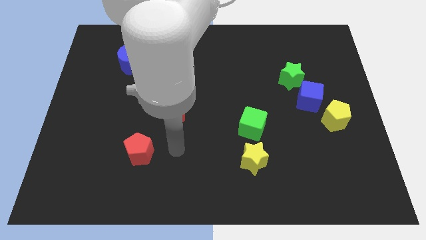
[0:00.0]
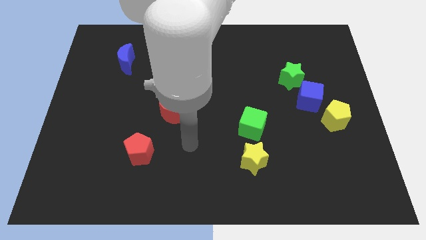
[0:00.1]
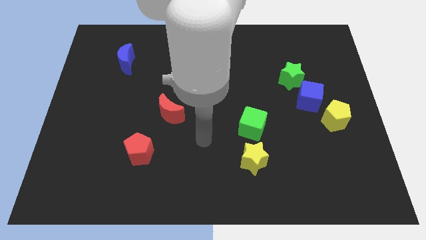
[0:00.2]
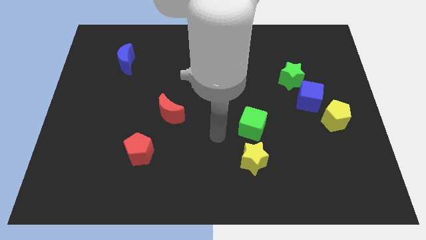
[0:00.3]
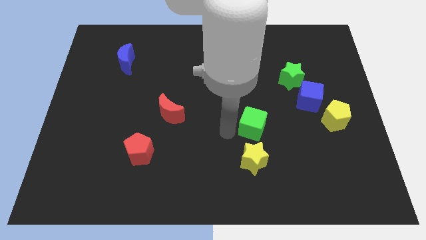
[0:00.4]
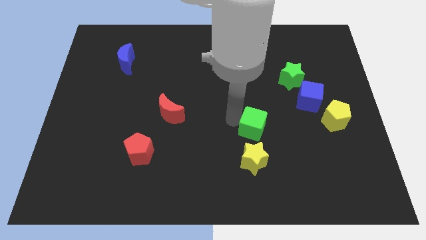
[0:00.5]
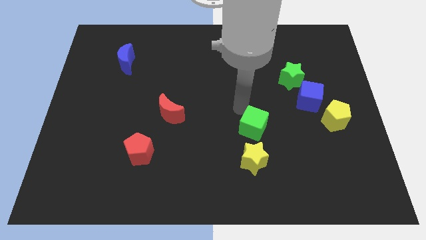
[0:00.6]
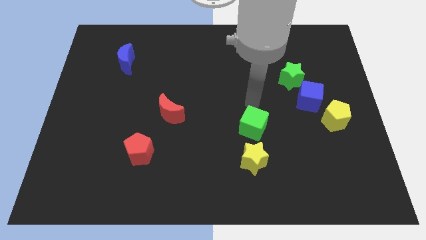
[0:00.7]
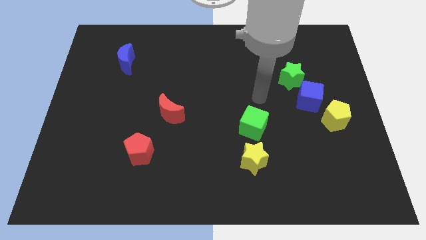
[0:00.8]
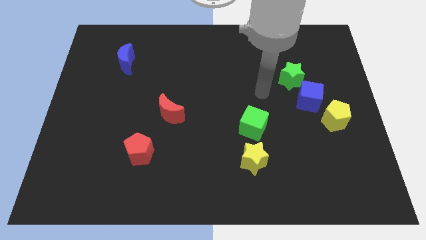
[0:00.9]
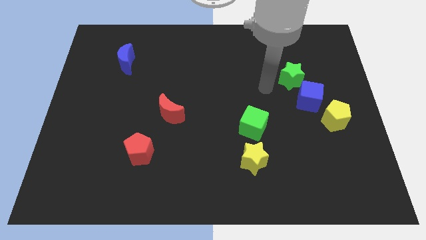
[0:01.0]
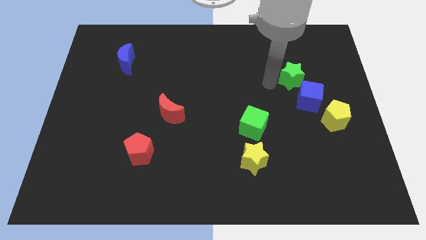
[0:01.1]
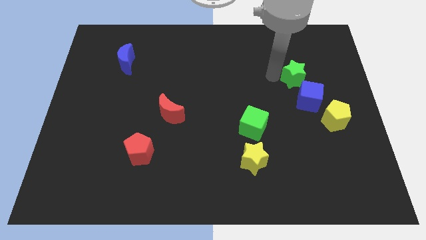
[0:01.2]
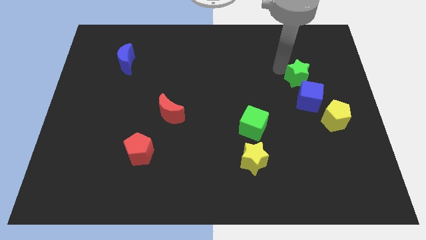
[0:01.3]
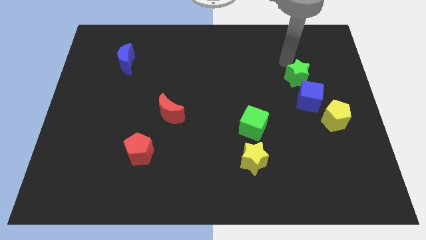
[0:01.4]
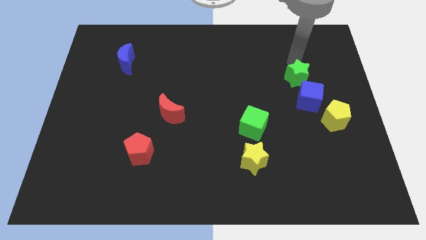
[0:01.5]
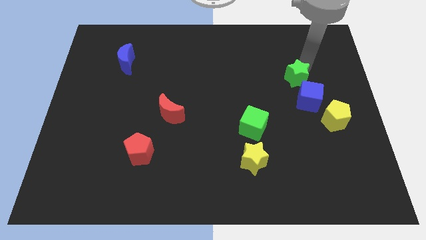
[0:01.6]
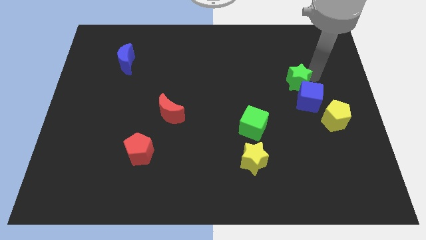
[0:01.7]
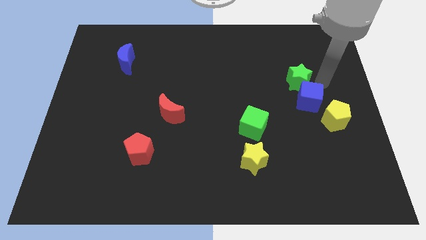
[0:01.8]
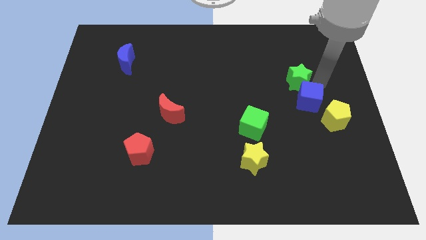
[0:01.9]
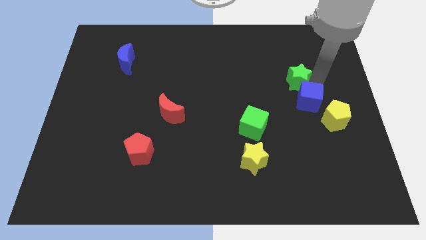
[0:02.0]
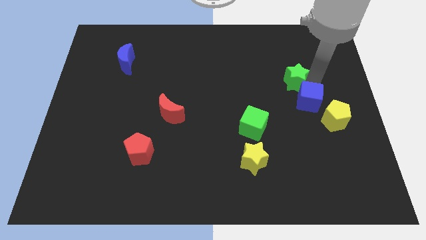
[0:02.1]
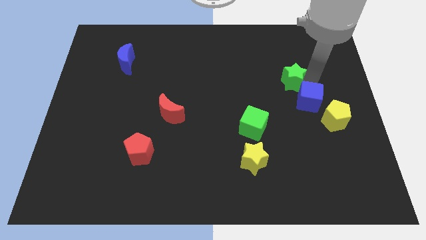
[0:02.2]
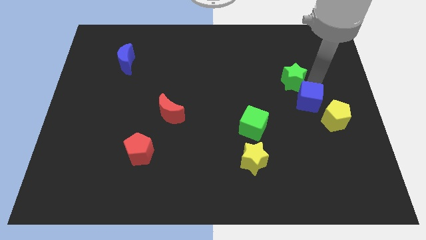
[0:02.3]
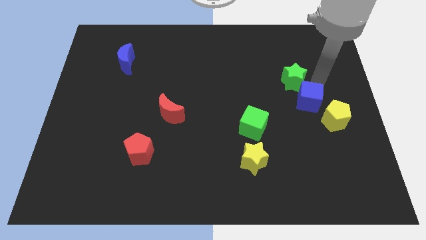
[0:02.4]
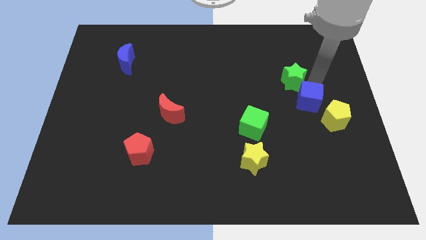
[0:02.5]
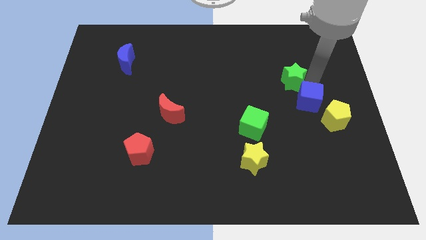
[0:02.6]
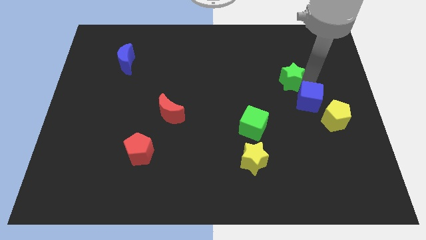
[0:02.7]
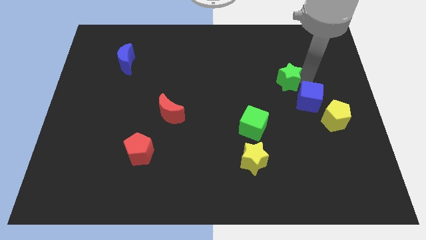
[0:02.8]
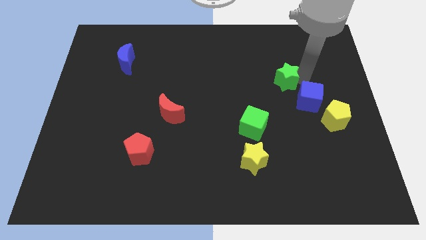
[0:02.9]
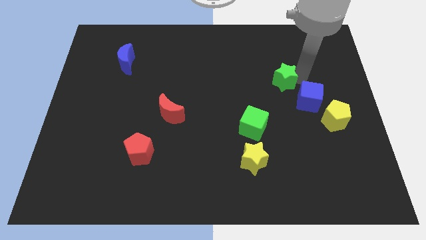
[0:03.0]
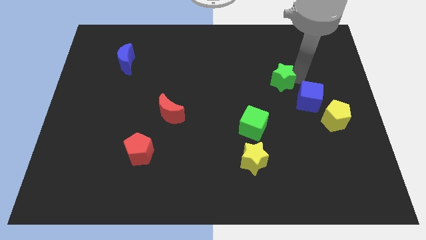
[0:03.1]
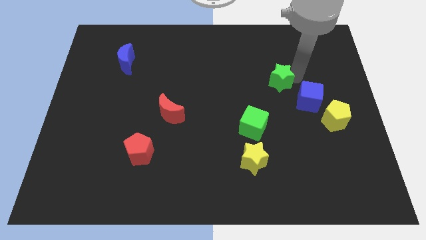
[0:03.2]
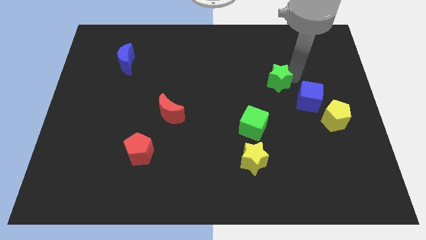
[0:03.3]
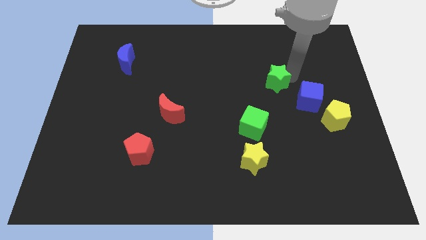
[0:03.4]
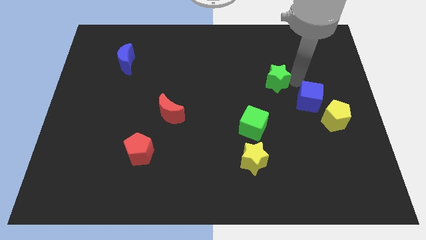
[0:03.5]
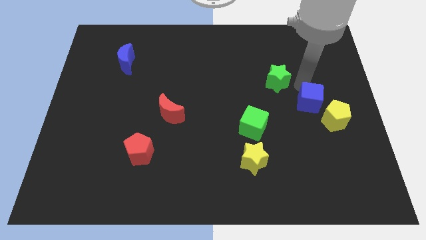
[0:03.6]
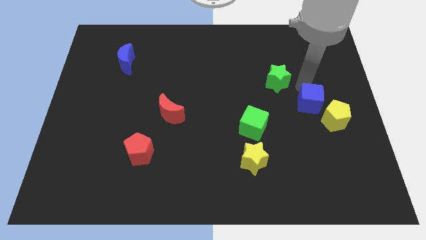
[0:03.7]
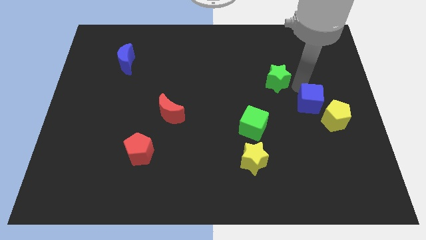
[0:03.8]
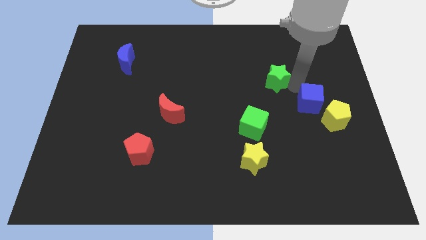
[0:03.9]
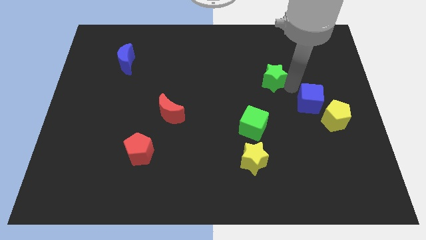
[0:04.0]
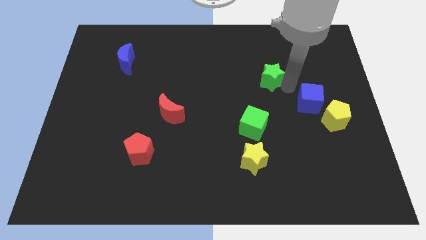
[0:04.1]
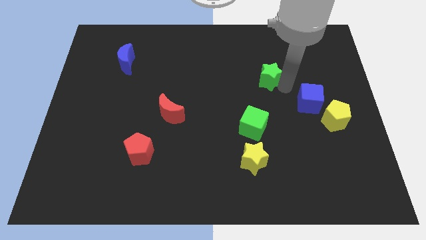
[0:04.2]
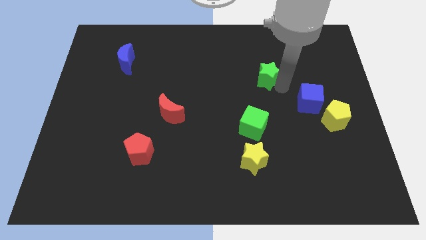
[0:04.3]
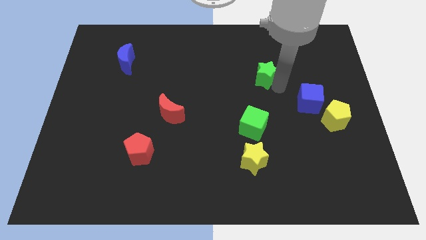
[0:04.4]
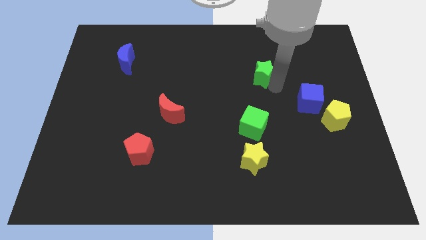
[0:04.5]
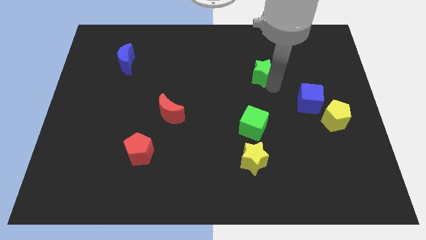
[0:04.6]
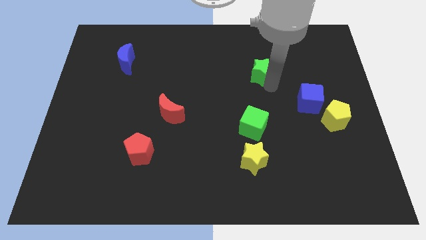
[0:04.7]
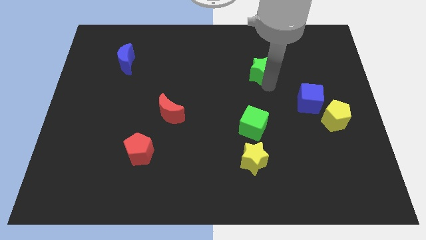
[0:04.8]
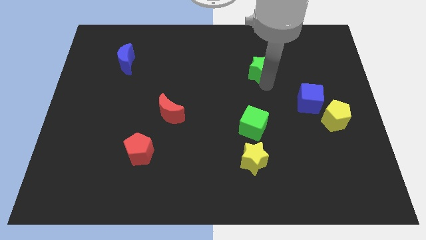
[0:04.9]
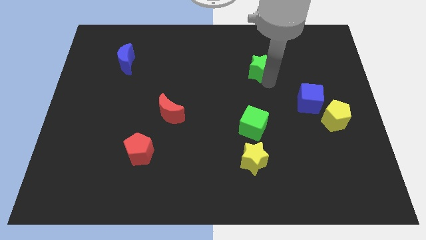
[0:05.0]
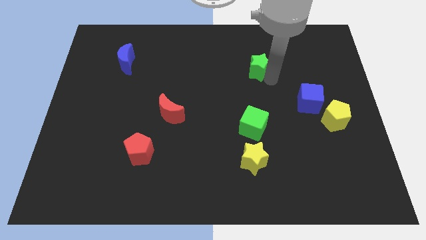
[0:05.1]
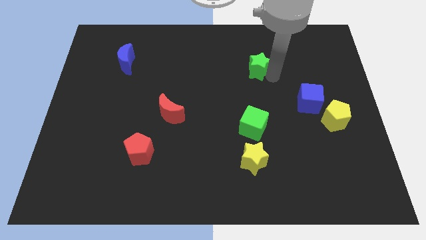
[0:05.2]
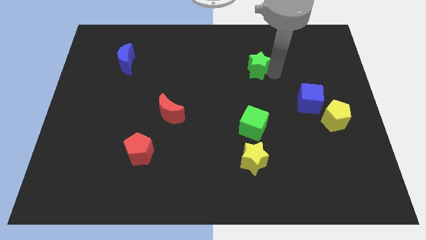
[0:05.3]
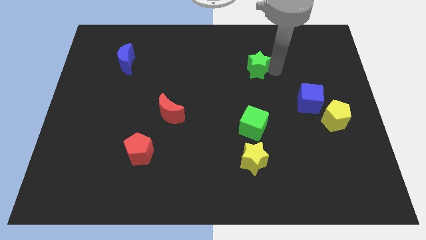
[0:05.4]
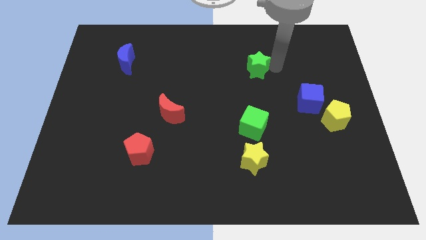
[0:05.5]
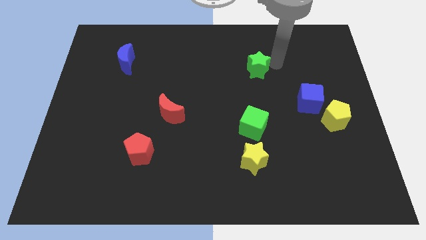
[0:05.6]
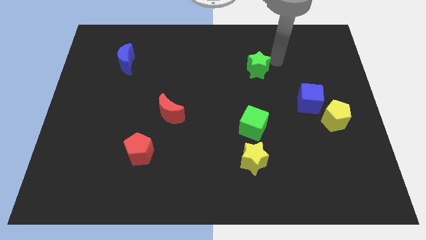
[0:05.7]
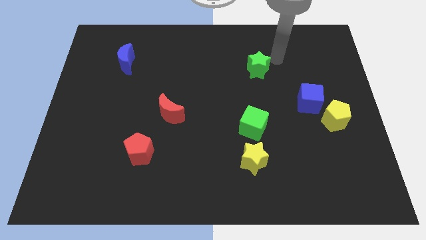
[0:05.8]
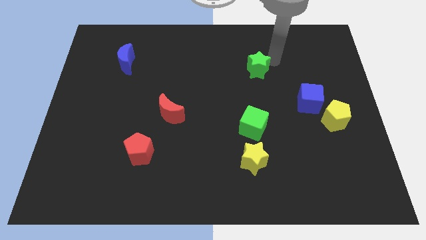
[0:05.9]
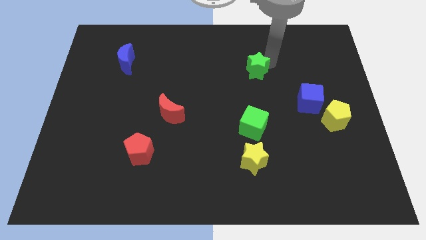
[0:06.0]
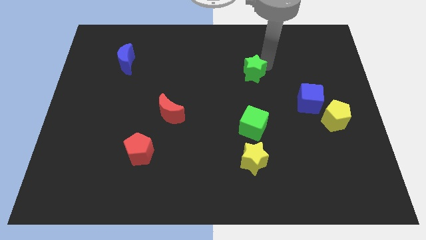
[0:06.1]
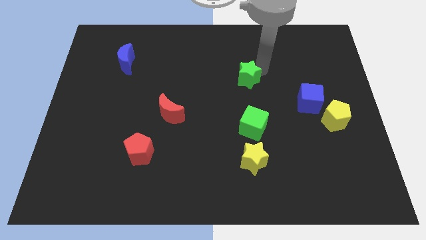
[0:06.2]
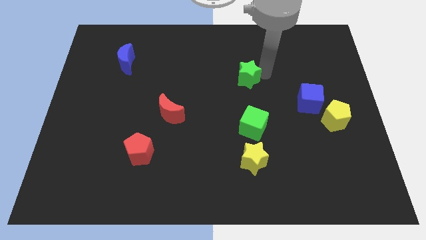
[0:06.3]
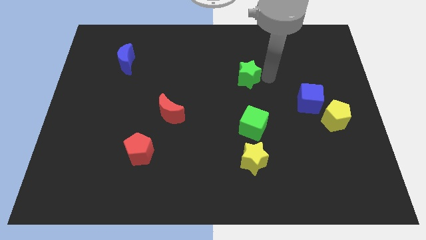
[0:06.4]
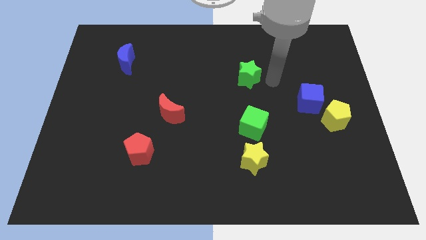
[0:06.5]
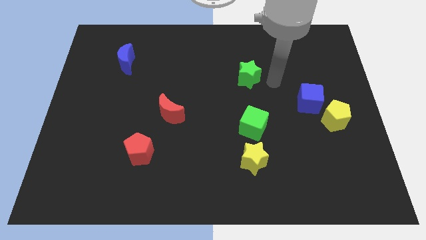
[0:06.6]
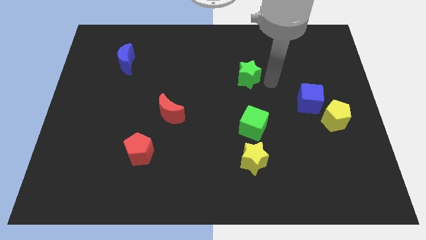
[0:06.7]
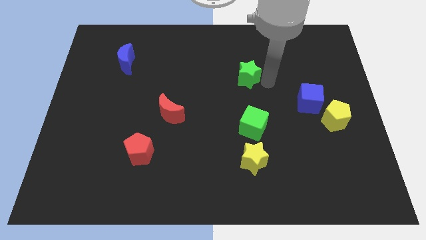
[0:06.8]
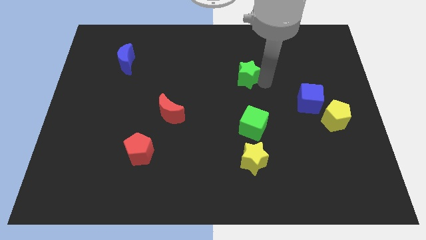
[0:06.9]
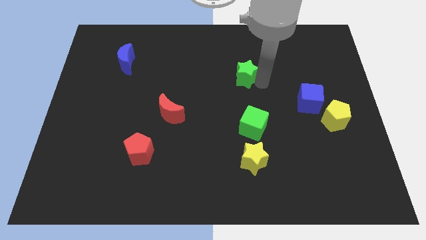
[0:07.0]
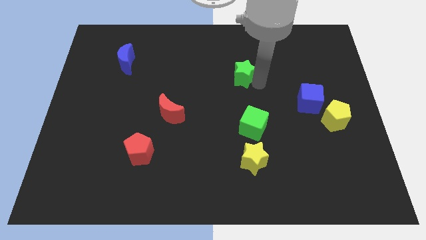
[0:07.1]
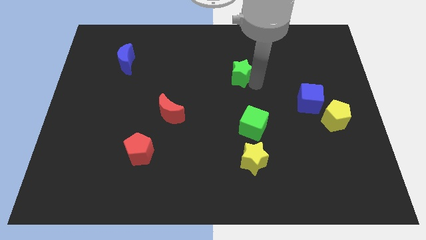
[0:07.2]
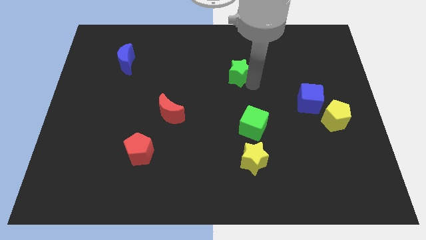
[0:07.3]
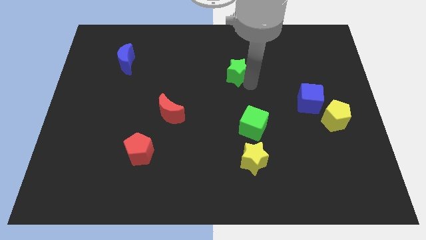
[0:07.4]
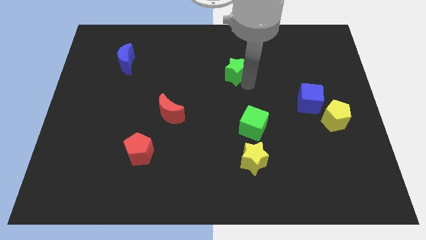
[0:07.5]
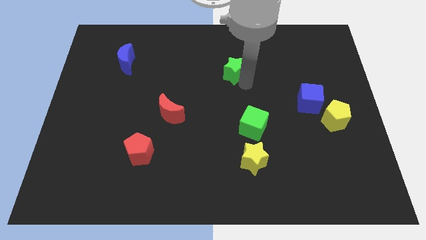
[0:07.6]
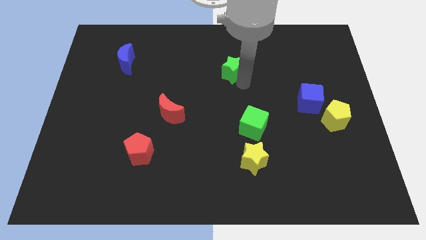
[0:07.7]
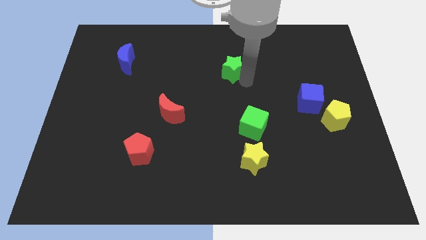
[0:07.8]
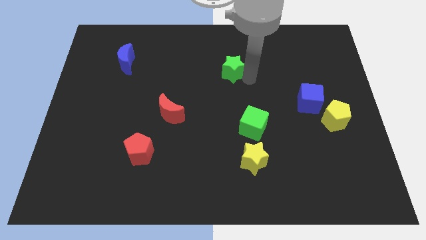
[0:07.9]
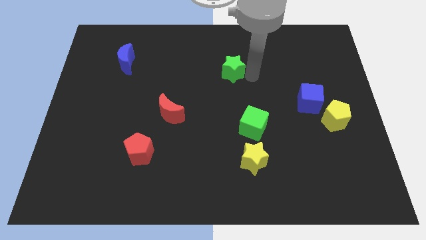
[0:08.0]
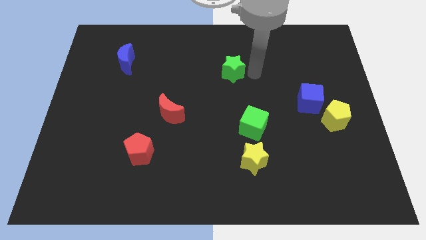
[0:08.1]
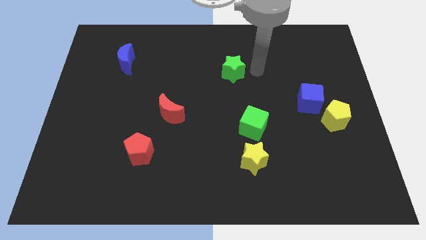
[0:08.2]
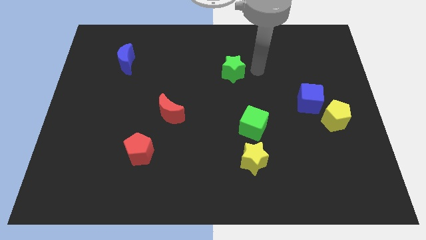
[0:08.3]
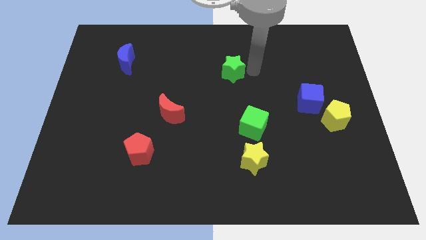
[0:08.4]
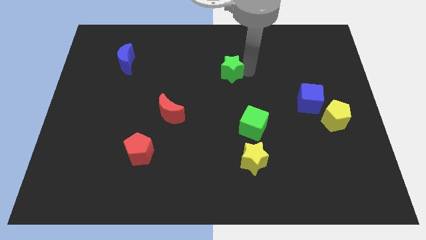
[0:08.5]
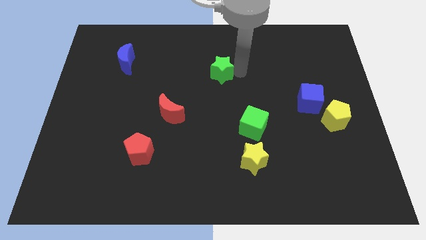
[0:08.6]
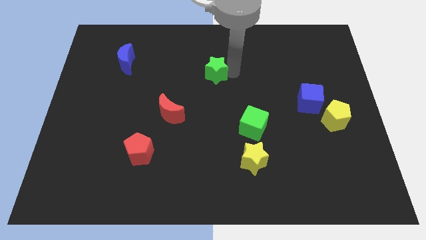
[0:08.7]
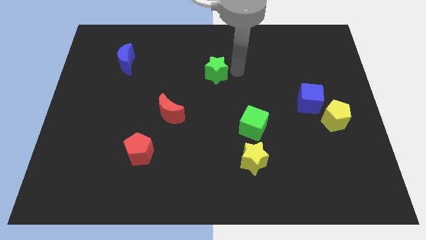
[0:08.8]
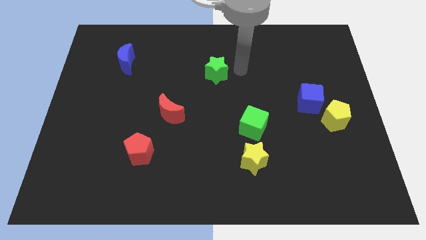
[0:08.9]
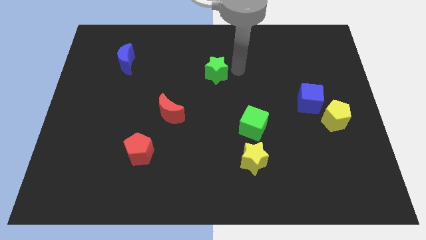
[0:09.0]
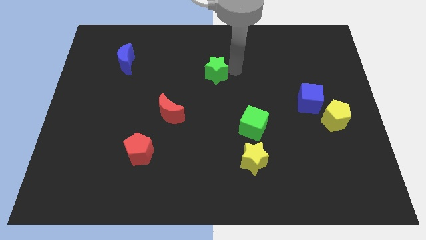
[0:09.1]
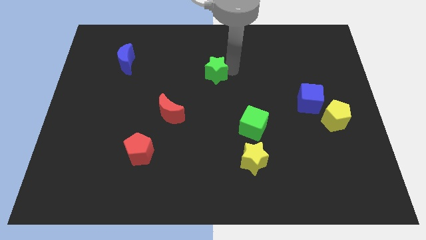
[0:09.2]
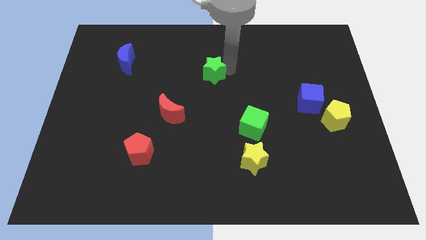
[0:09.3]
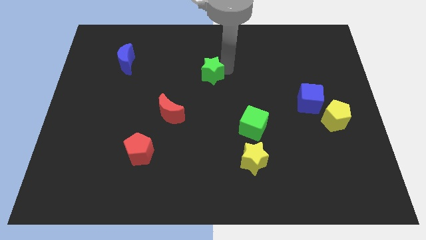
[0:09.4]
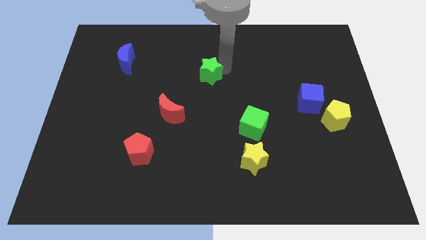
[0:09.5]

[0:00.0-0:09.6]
move the green star to the left
